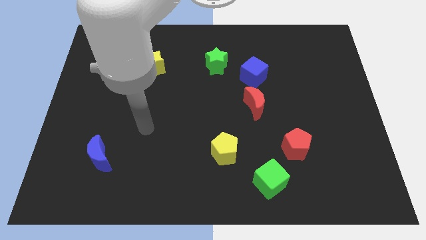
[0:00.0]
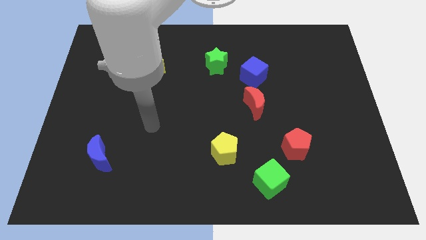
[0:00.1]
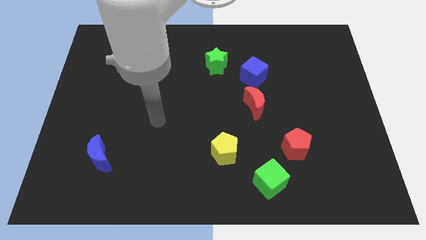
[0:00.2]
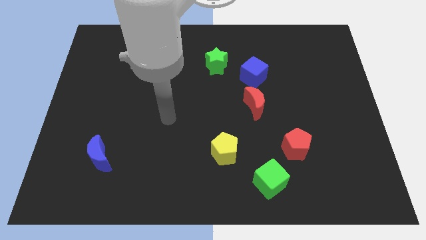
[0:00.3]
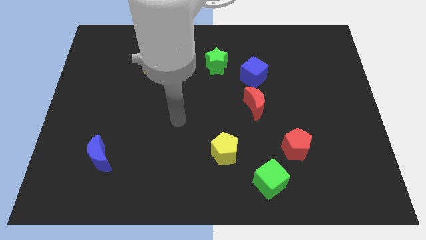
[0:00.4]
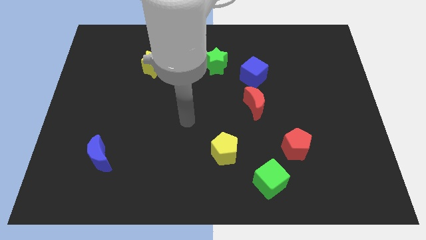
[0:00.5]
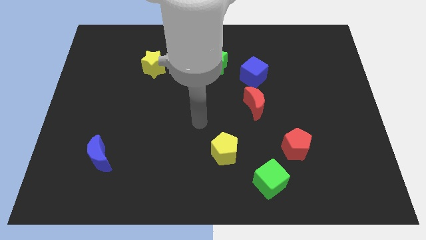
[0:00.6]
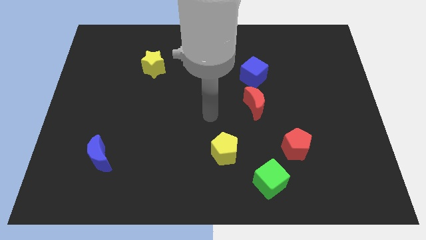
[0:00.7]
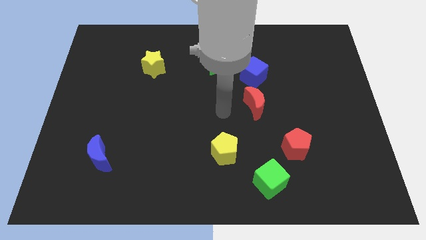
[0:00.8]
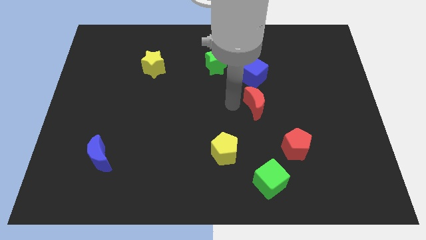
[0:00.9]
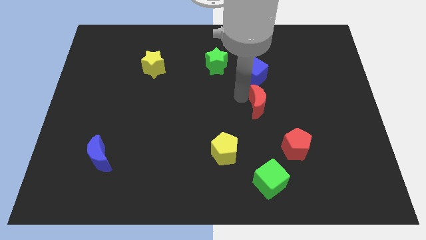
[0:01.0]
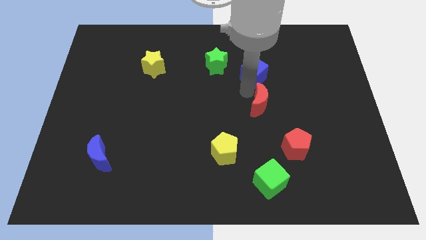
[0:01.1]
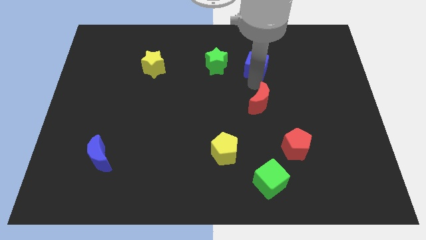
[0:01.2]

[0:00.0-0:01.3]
pull the red moon apart from the blue cube

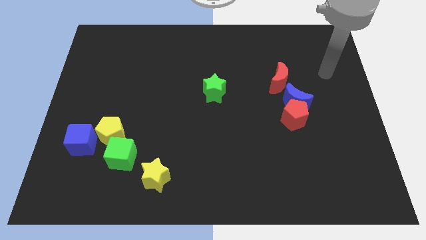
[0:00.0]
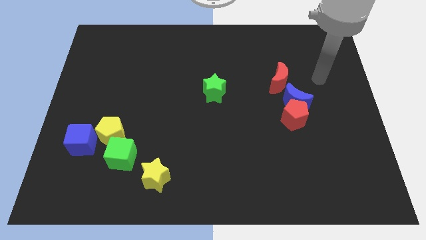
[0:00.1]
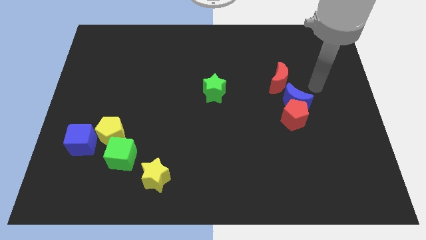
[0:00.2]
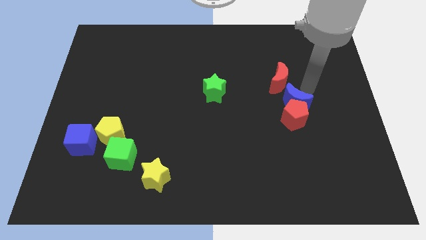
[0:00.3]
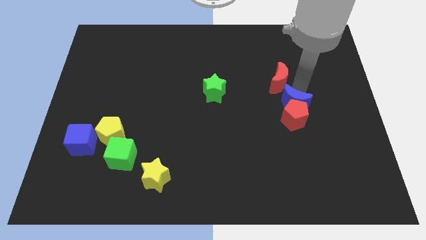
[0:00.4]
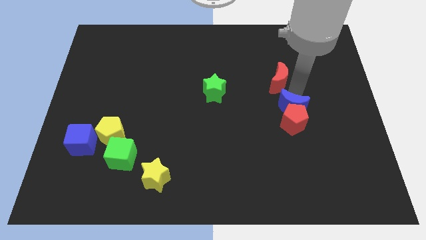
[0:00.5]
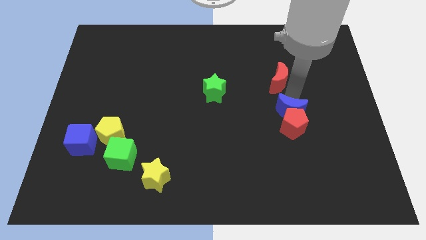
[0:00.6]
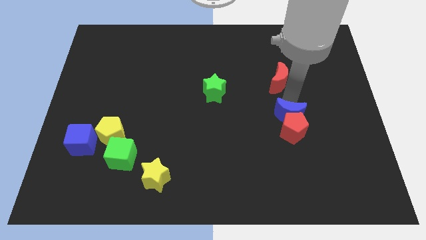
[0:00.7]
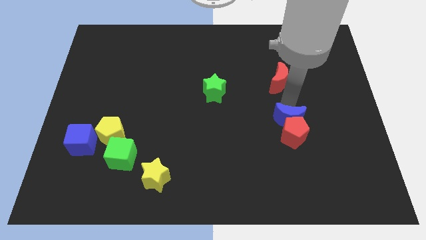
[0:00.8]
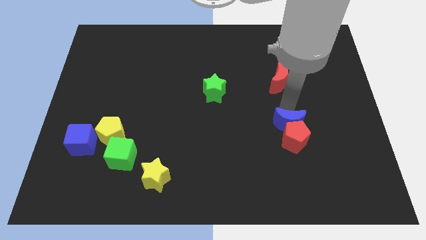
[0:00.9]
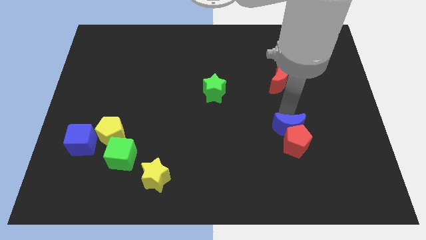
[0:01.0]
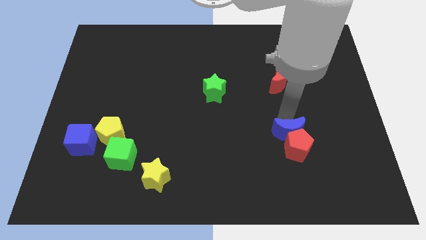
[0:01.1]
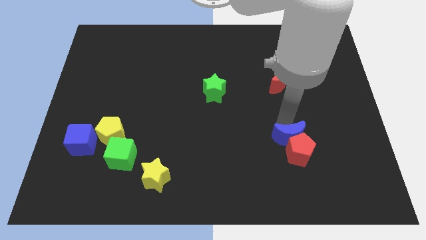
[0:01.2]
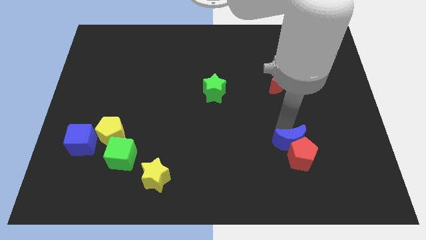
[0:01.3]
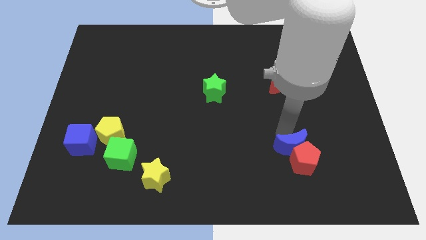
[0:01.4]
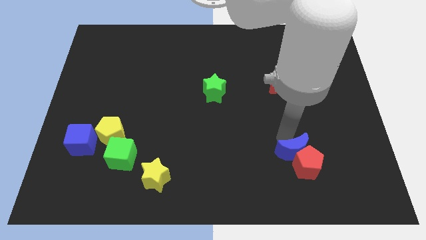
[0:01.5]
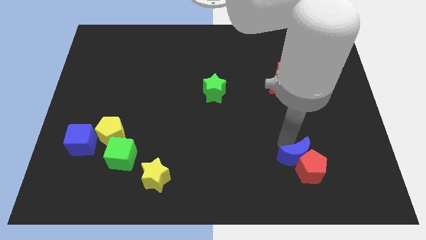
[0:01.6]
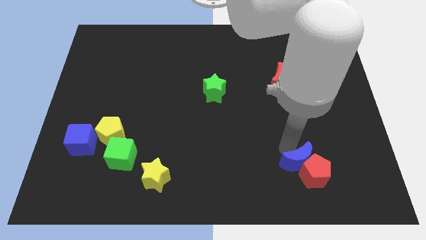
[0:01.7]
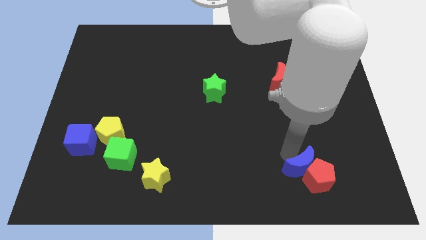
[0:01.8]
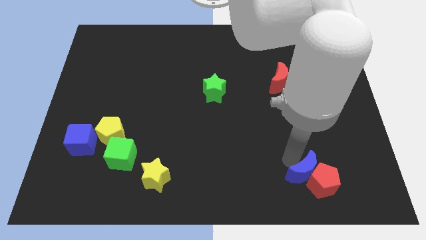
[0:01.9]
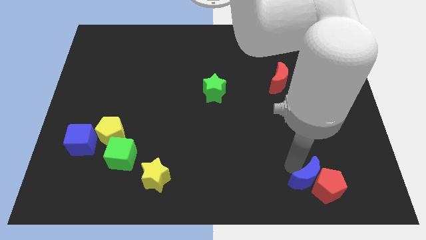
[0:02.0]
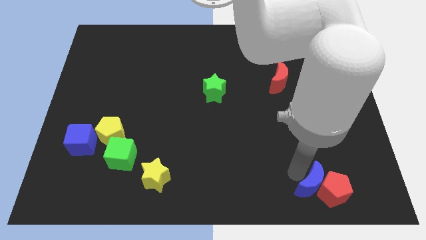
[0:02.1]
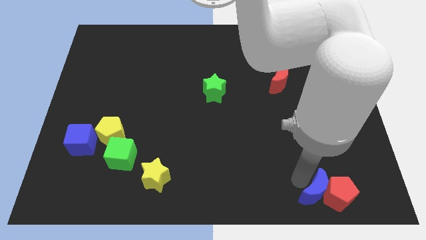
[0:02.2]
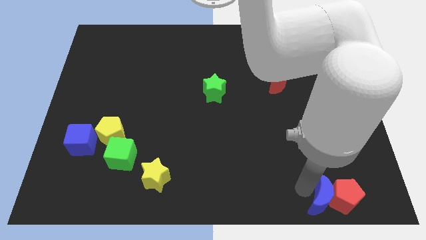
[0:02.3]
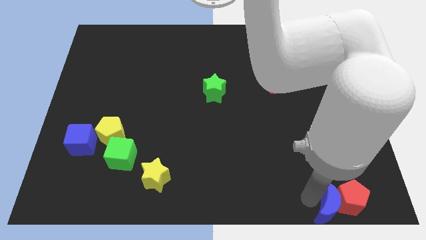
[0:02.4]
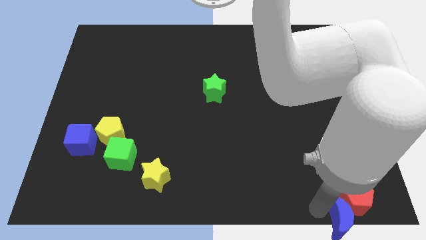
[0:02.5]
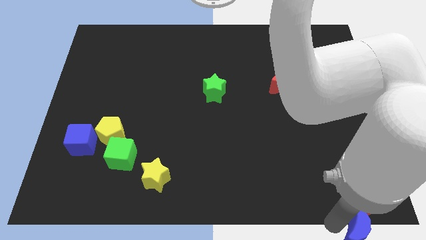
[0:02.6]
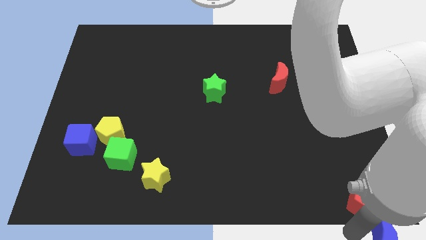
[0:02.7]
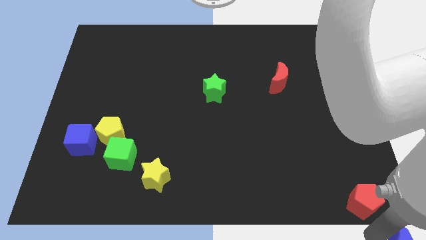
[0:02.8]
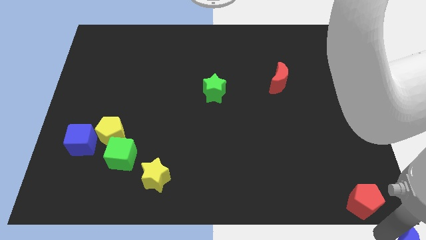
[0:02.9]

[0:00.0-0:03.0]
move the red pentagon away from the blue moon

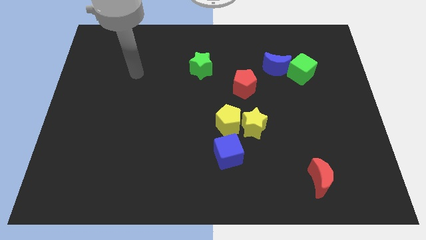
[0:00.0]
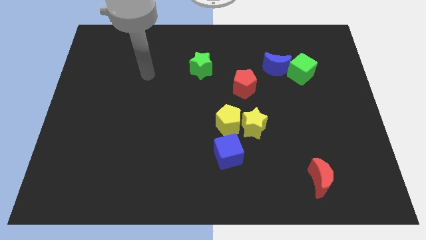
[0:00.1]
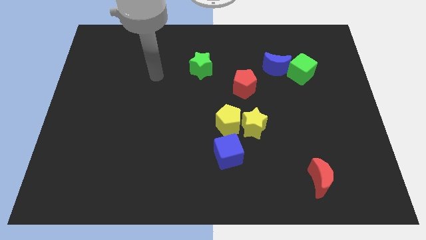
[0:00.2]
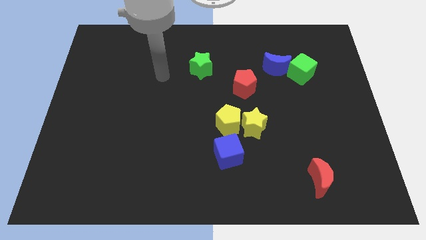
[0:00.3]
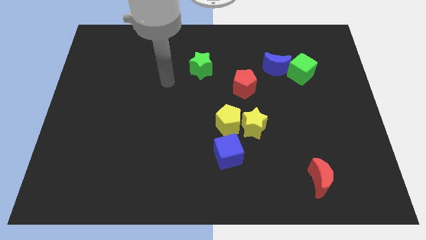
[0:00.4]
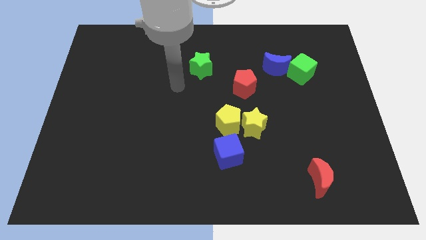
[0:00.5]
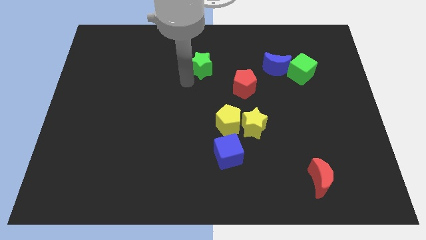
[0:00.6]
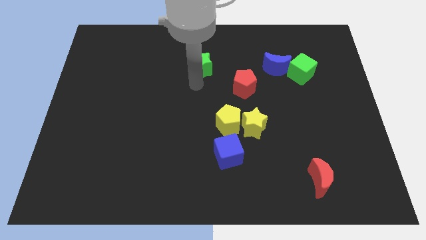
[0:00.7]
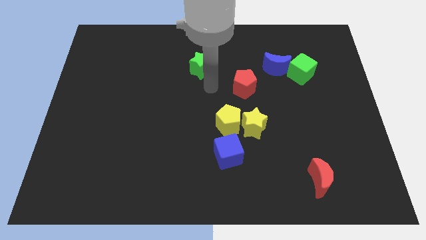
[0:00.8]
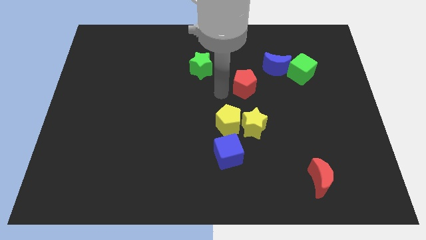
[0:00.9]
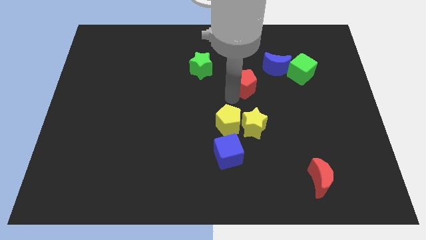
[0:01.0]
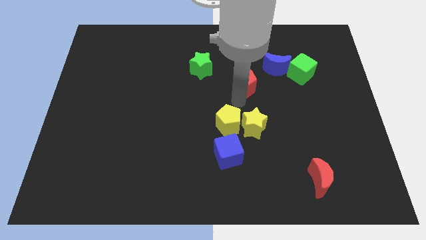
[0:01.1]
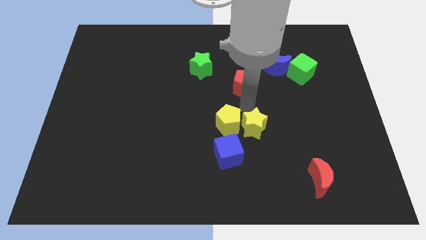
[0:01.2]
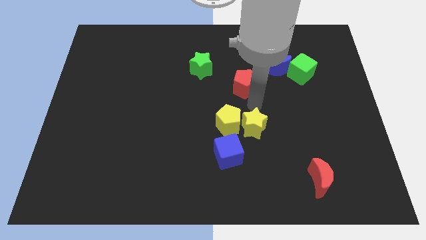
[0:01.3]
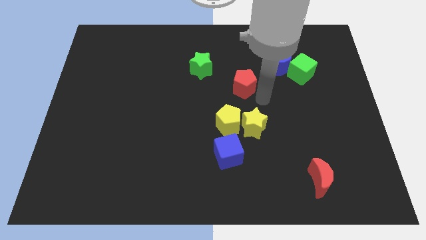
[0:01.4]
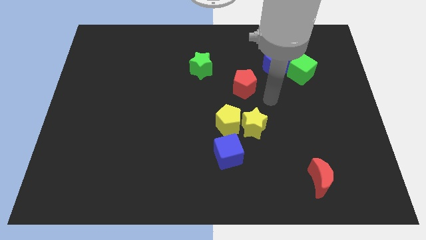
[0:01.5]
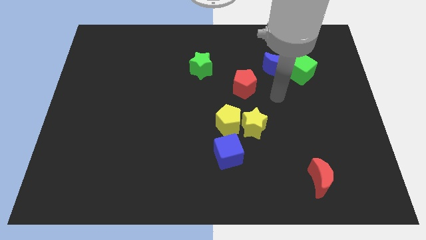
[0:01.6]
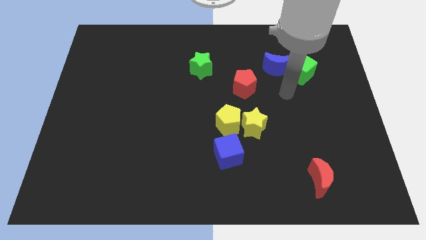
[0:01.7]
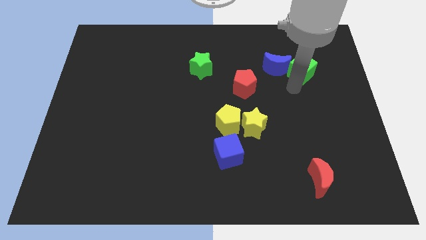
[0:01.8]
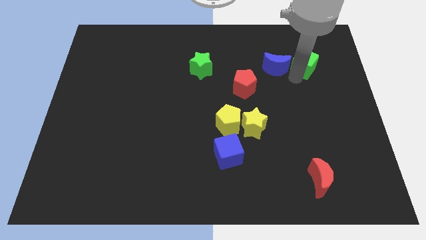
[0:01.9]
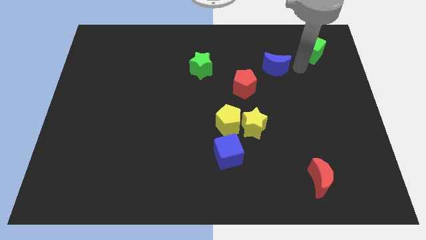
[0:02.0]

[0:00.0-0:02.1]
pull the blue moon apart from the green cube

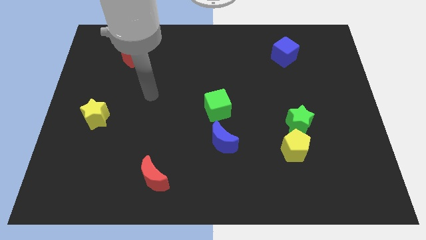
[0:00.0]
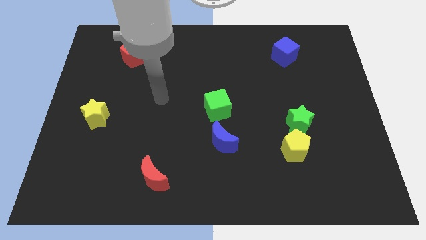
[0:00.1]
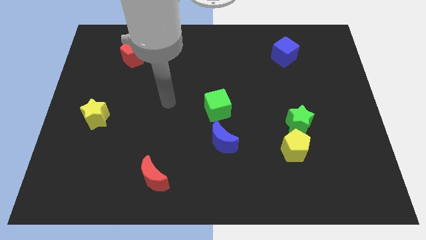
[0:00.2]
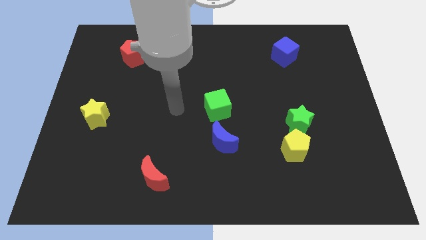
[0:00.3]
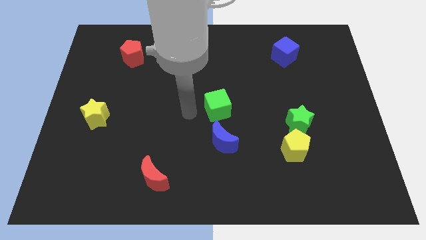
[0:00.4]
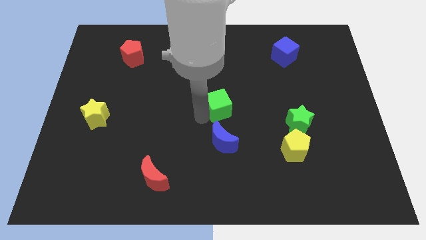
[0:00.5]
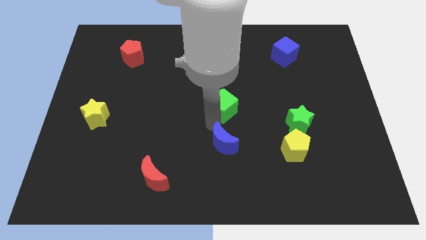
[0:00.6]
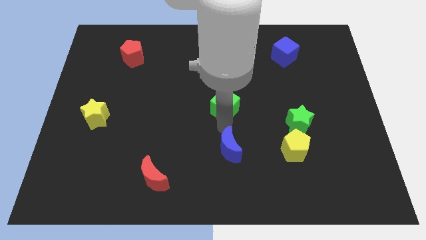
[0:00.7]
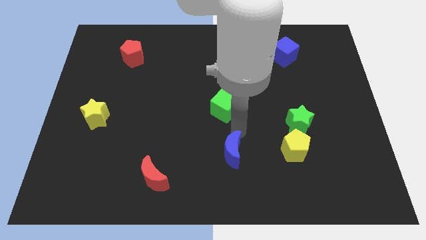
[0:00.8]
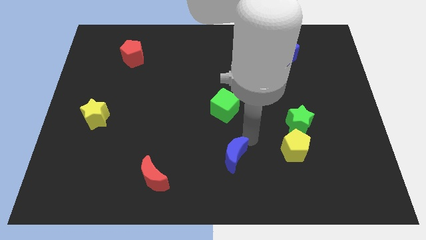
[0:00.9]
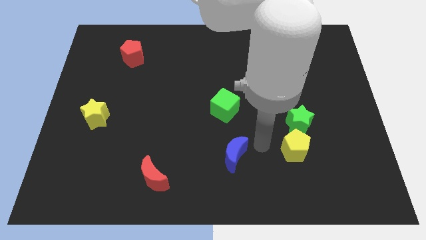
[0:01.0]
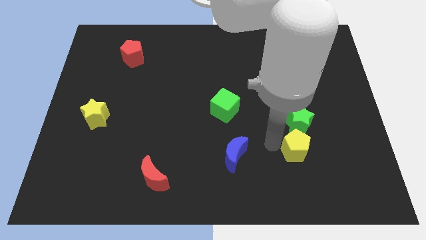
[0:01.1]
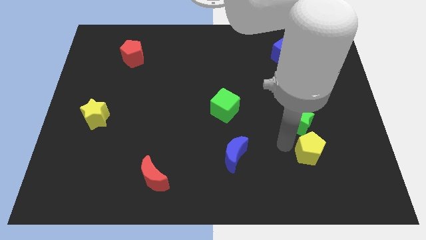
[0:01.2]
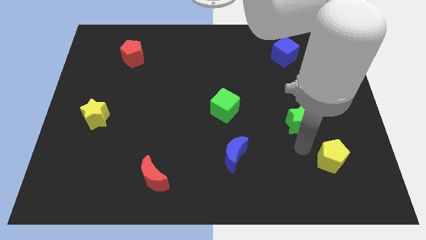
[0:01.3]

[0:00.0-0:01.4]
move the green star away from the yellow pentagon

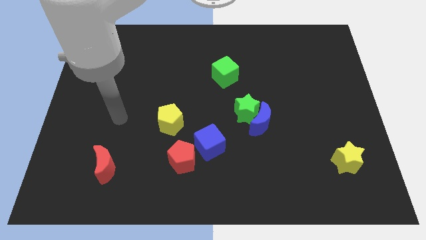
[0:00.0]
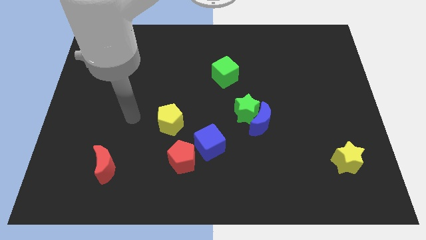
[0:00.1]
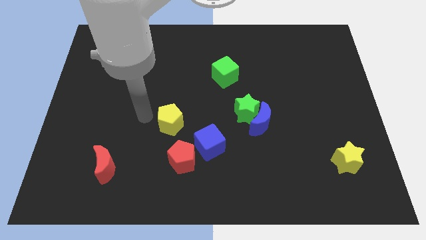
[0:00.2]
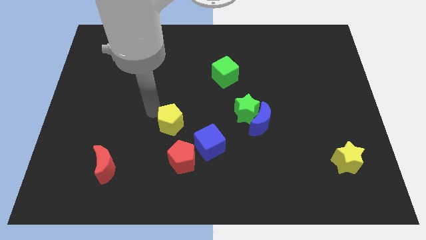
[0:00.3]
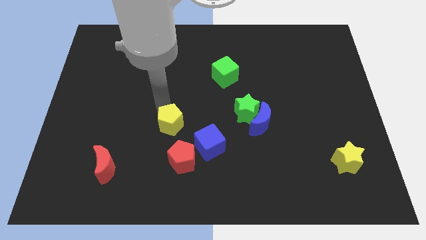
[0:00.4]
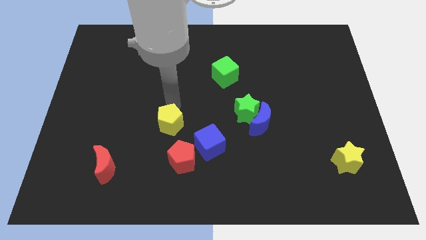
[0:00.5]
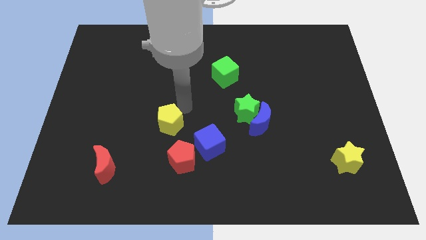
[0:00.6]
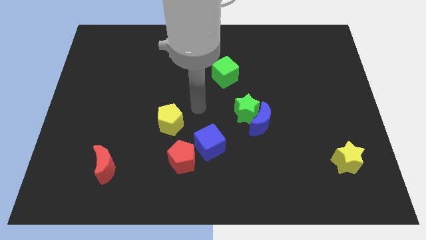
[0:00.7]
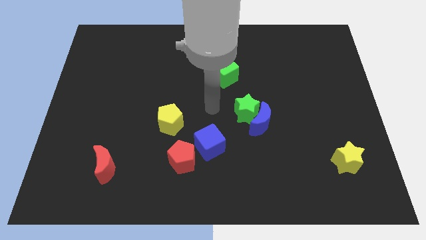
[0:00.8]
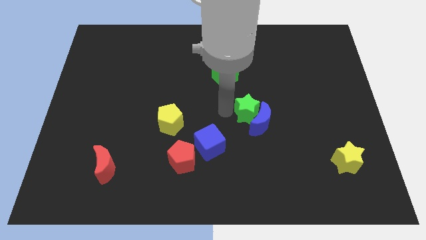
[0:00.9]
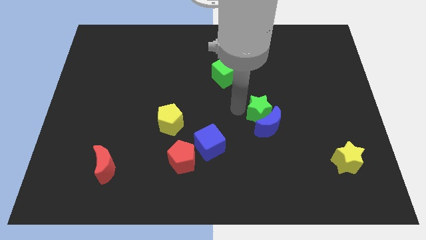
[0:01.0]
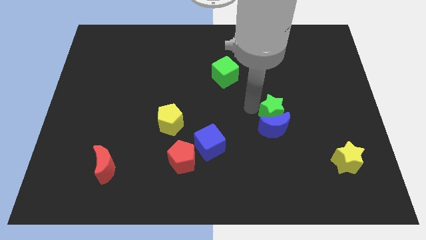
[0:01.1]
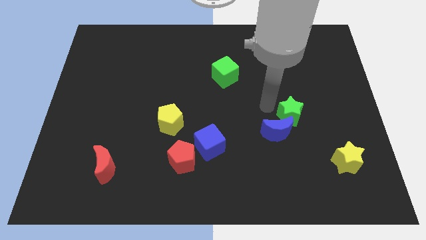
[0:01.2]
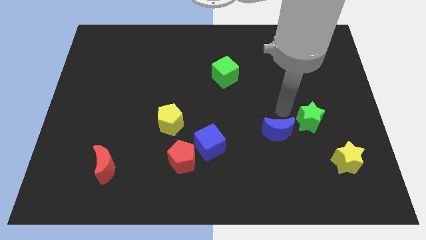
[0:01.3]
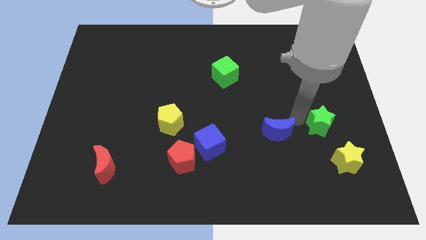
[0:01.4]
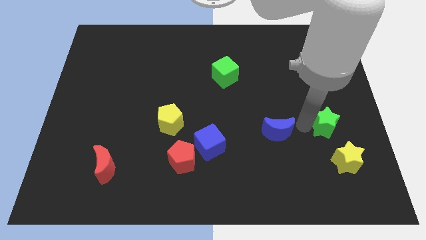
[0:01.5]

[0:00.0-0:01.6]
move the blue moon away from the green star

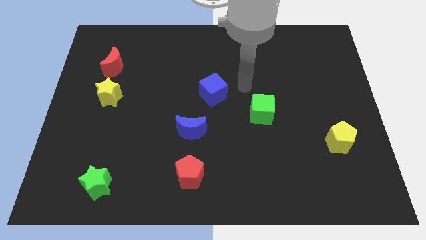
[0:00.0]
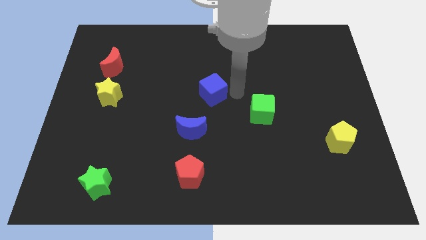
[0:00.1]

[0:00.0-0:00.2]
pull the red moon apart from the yellow star
